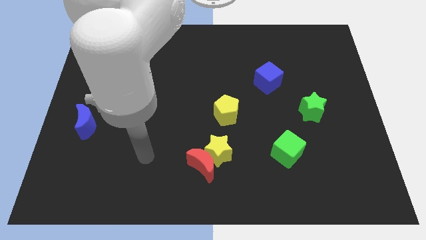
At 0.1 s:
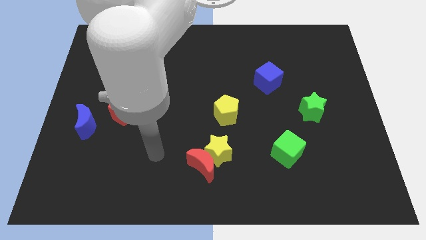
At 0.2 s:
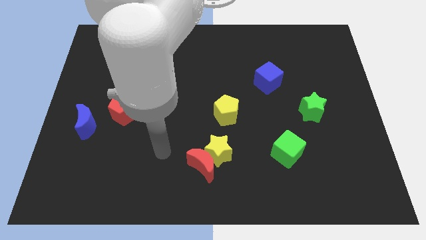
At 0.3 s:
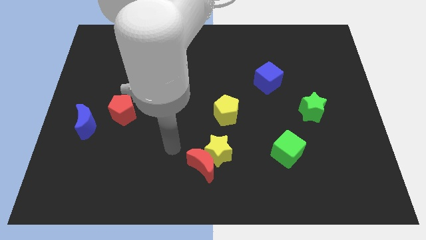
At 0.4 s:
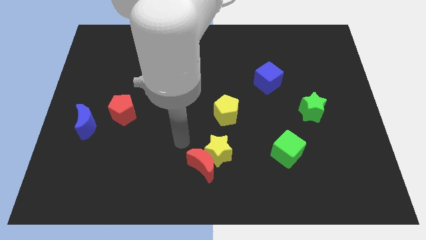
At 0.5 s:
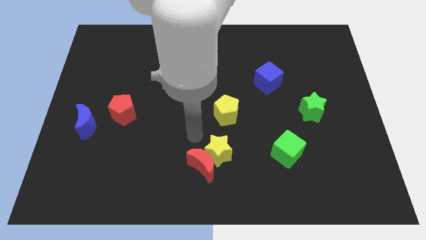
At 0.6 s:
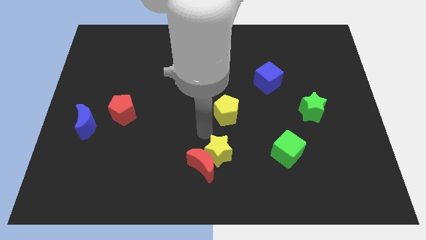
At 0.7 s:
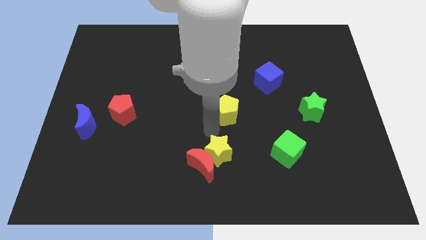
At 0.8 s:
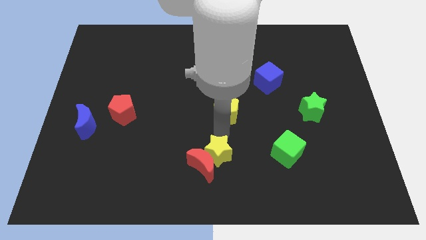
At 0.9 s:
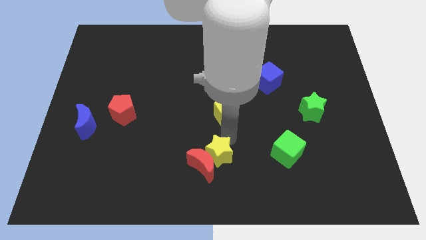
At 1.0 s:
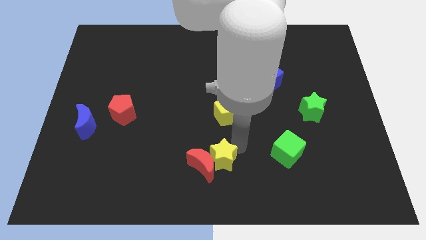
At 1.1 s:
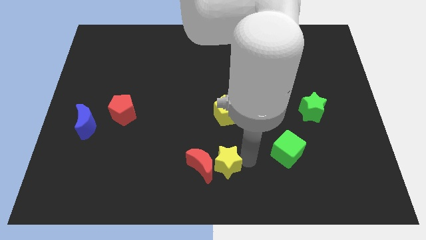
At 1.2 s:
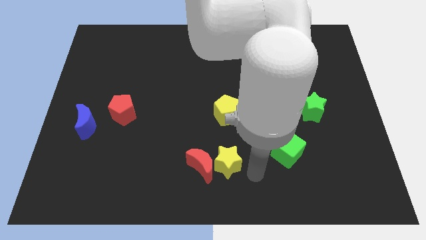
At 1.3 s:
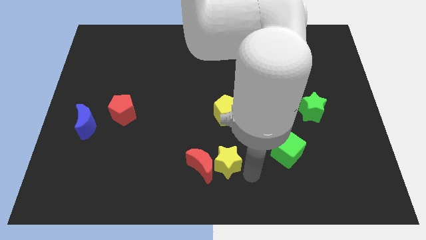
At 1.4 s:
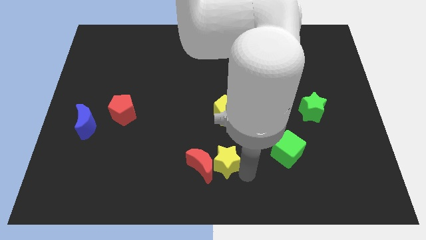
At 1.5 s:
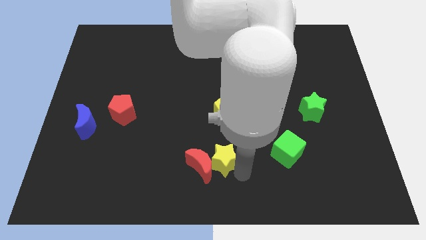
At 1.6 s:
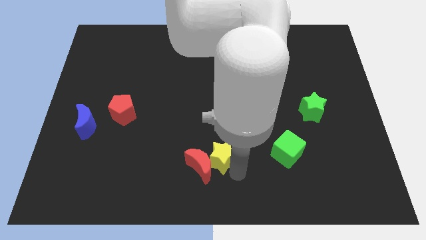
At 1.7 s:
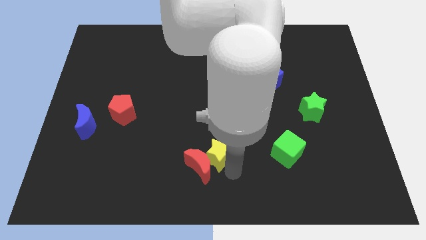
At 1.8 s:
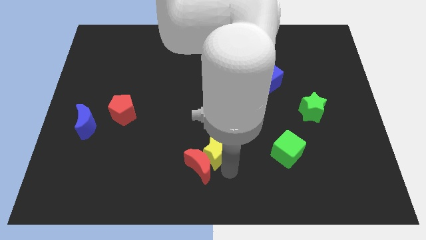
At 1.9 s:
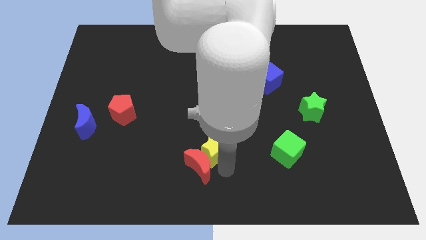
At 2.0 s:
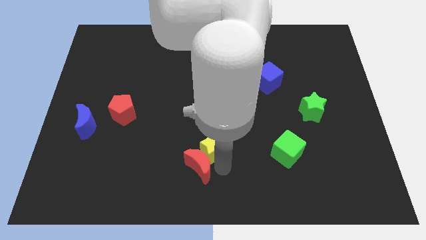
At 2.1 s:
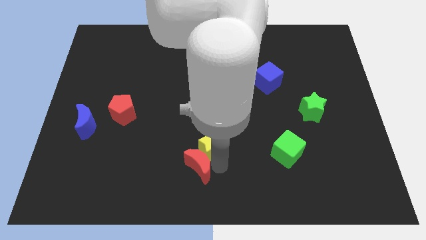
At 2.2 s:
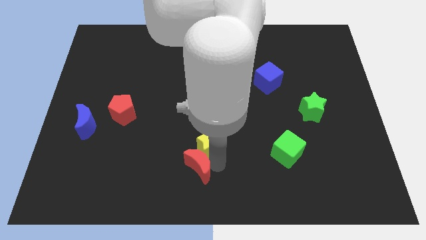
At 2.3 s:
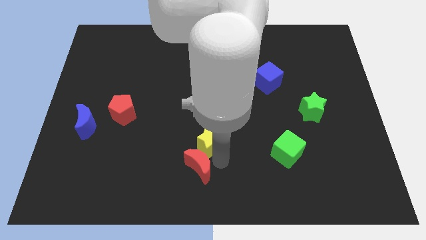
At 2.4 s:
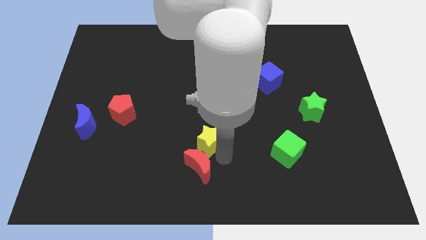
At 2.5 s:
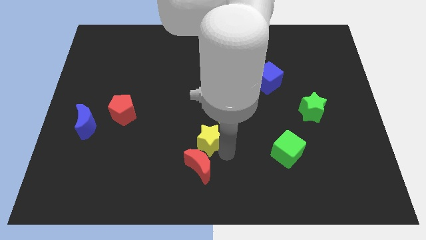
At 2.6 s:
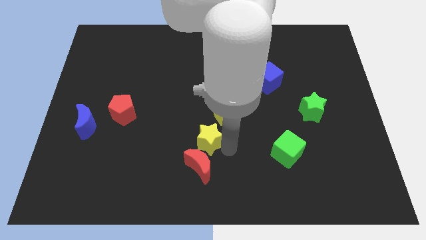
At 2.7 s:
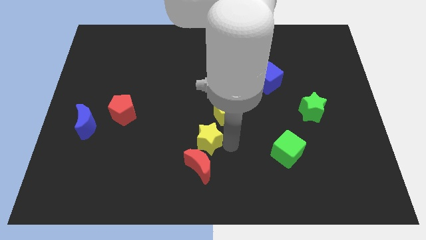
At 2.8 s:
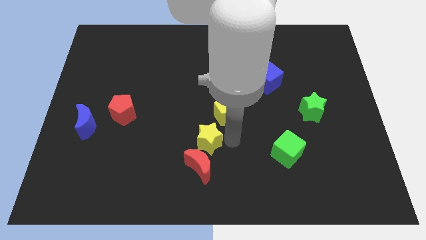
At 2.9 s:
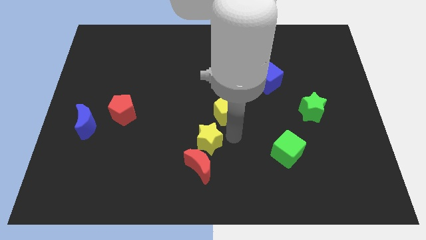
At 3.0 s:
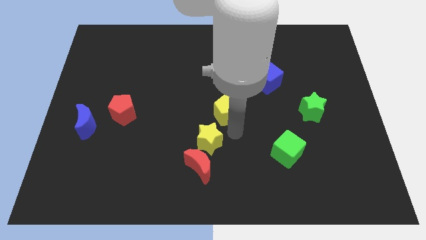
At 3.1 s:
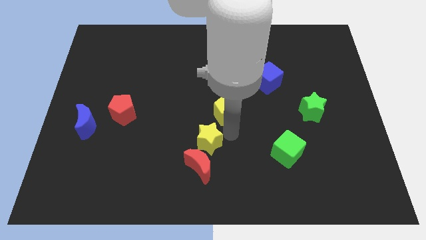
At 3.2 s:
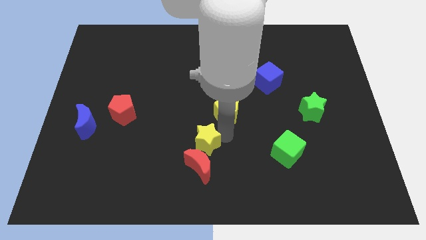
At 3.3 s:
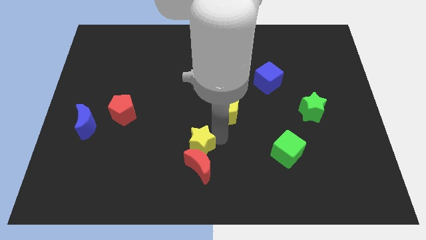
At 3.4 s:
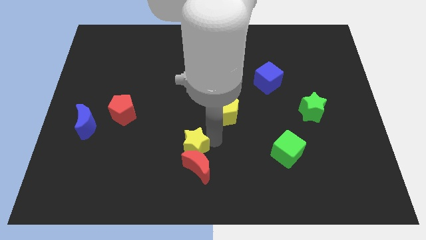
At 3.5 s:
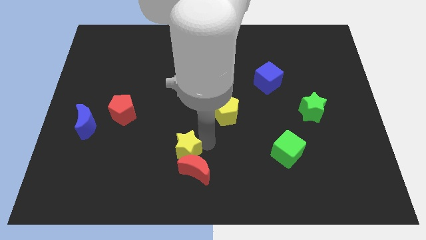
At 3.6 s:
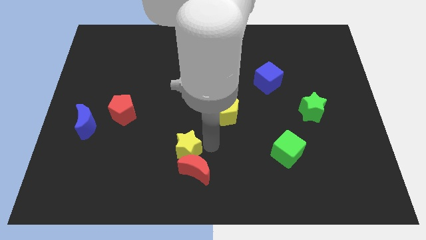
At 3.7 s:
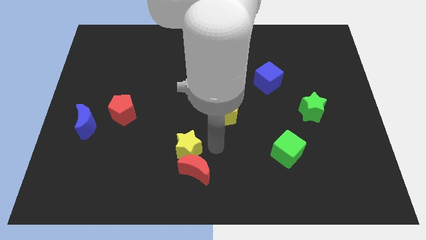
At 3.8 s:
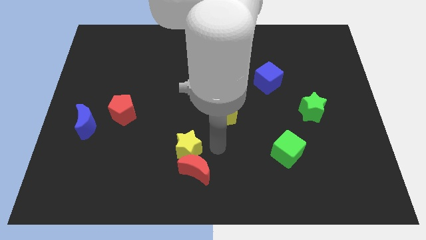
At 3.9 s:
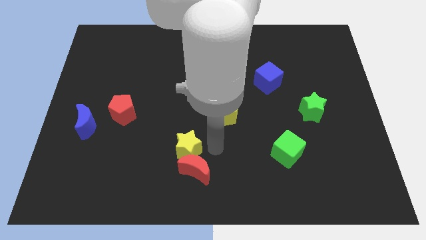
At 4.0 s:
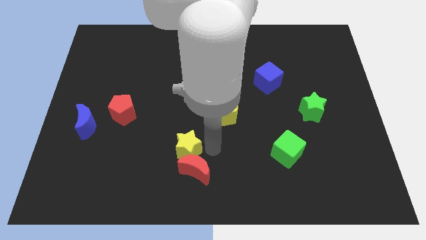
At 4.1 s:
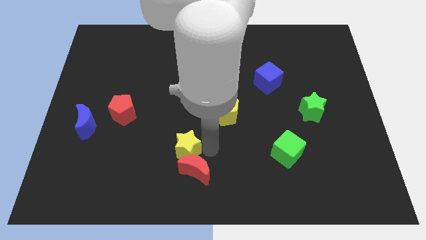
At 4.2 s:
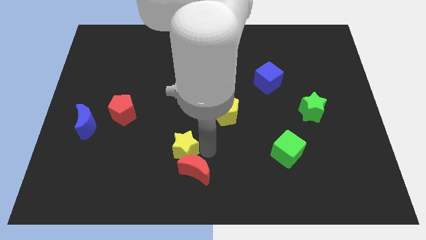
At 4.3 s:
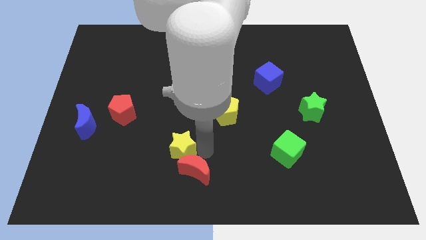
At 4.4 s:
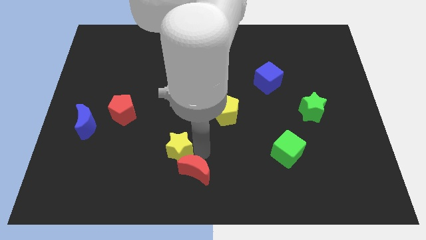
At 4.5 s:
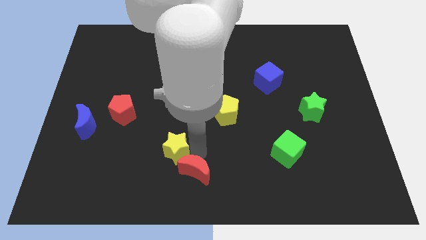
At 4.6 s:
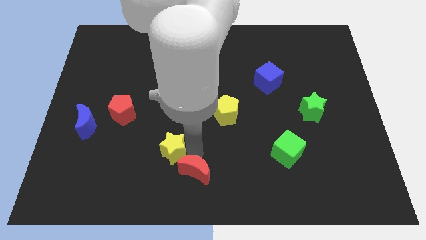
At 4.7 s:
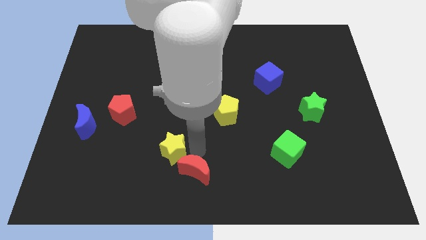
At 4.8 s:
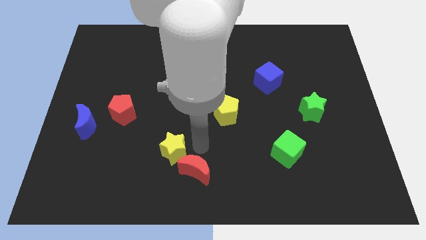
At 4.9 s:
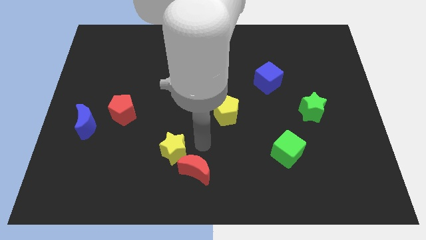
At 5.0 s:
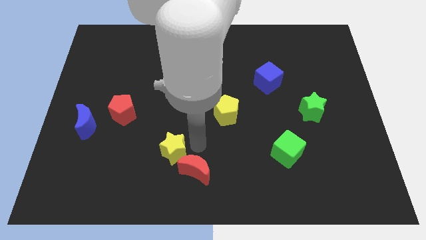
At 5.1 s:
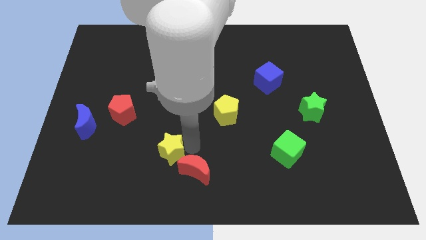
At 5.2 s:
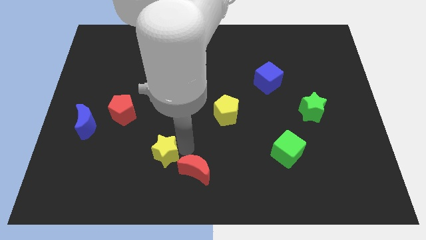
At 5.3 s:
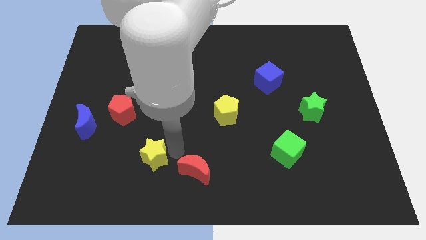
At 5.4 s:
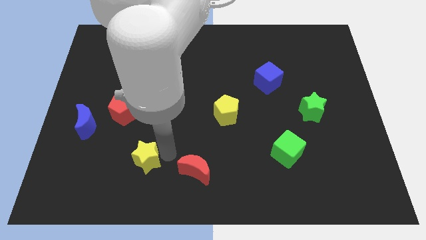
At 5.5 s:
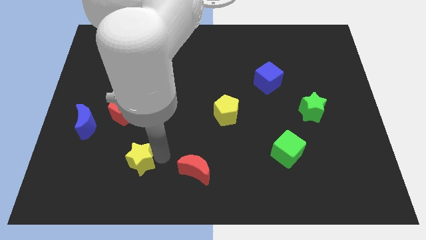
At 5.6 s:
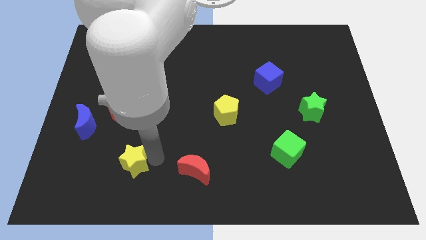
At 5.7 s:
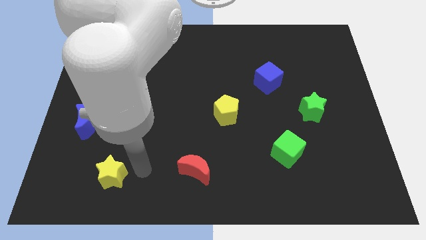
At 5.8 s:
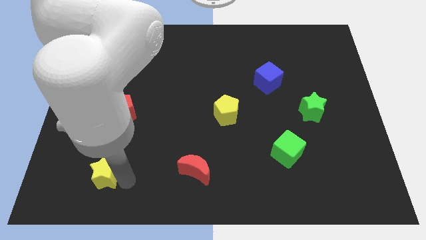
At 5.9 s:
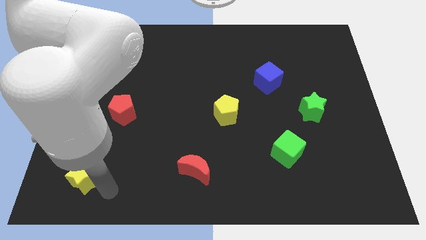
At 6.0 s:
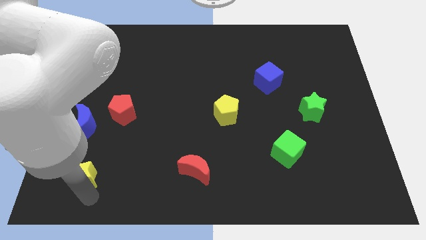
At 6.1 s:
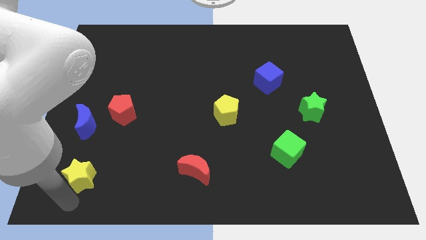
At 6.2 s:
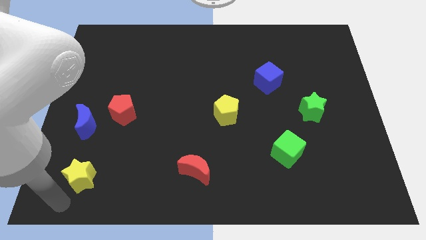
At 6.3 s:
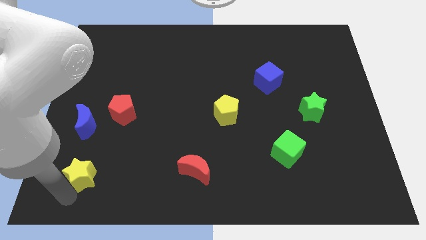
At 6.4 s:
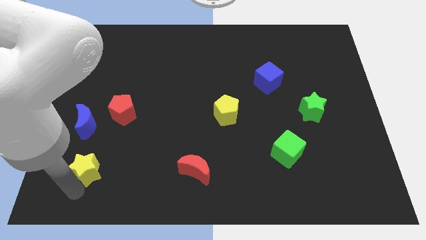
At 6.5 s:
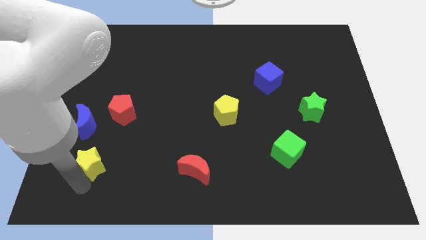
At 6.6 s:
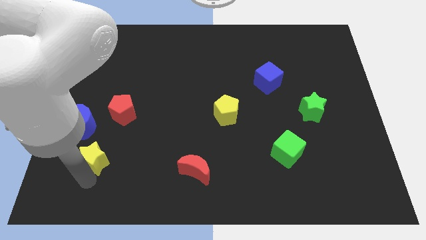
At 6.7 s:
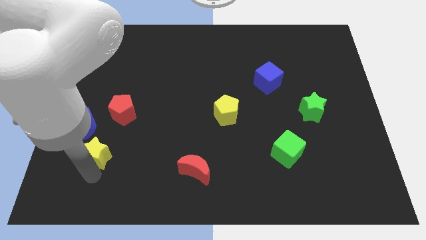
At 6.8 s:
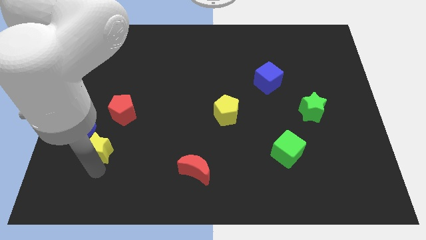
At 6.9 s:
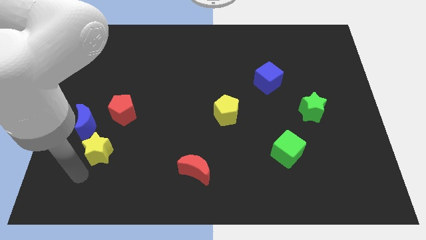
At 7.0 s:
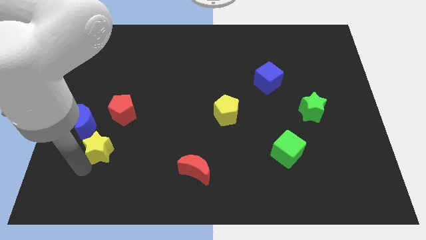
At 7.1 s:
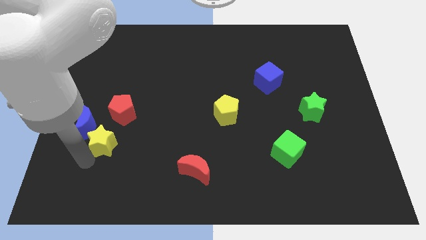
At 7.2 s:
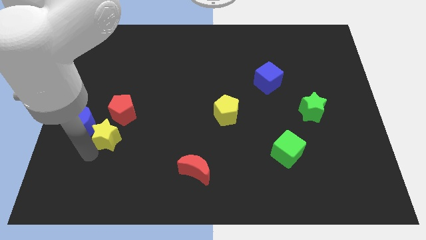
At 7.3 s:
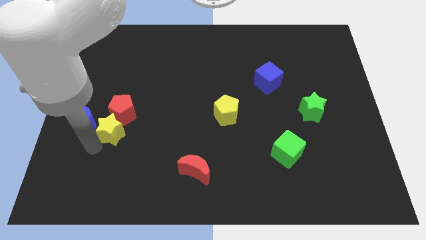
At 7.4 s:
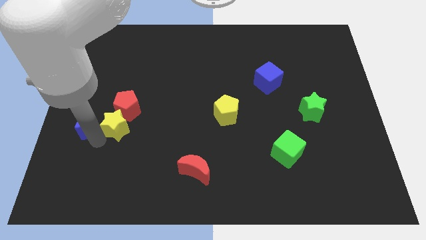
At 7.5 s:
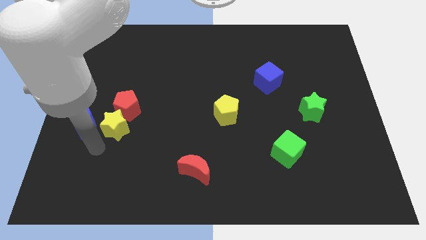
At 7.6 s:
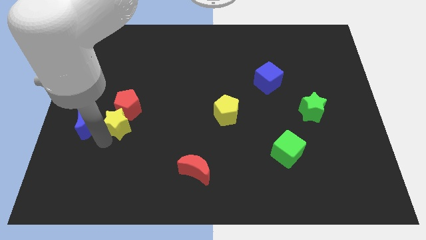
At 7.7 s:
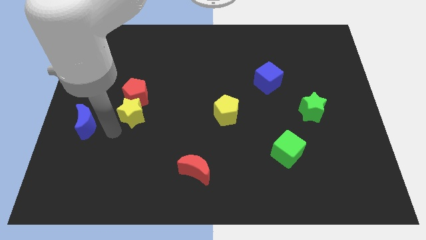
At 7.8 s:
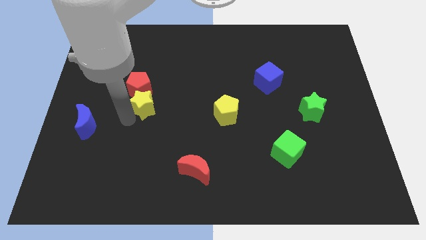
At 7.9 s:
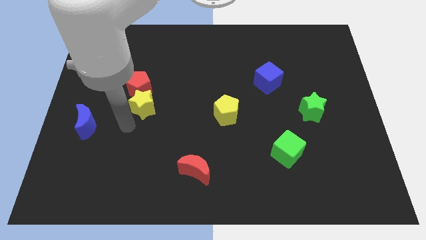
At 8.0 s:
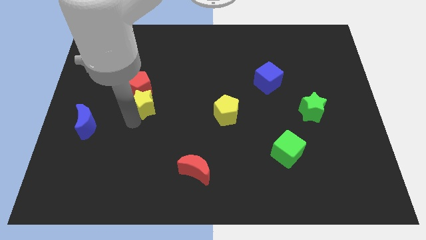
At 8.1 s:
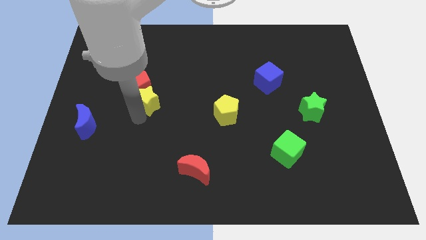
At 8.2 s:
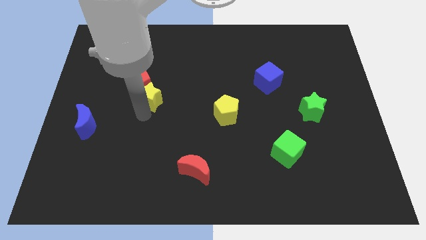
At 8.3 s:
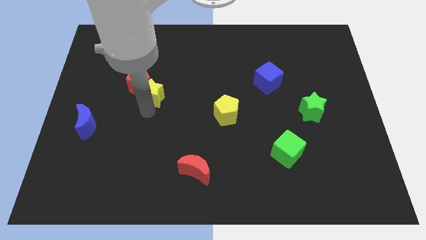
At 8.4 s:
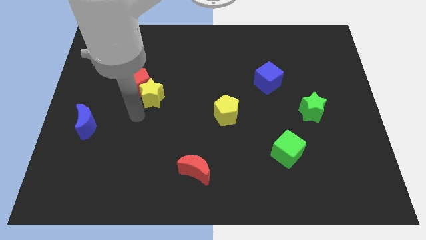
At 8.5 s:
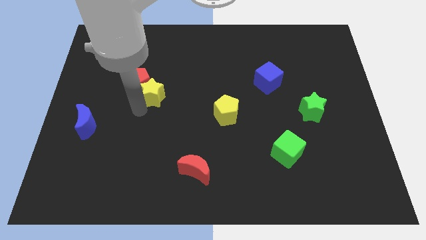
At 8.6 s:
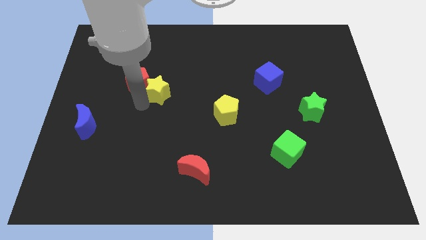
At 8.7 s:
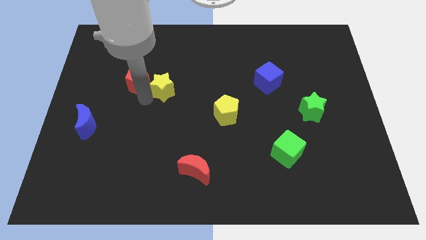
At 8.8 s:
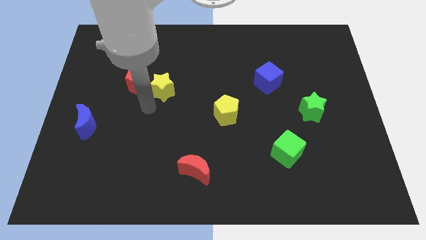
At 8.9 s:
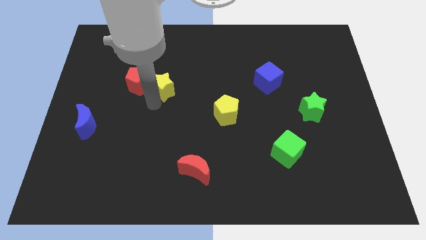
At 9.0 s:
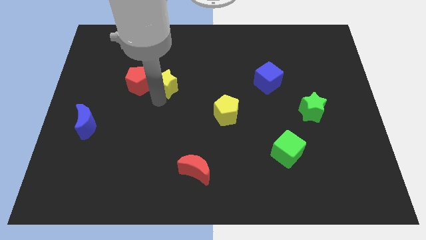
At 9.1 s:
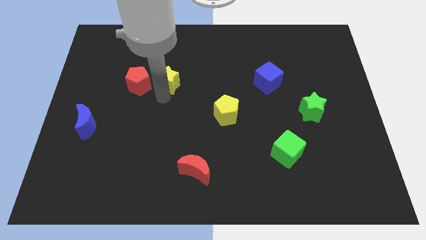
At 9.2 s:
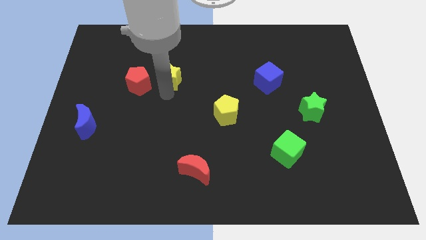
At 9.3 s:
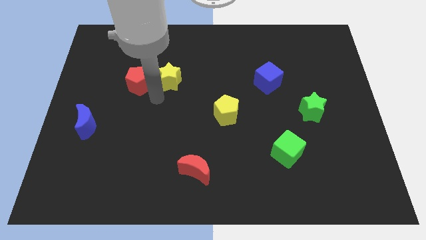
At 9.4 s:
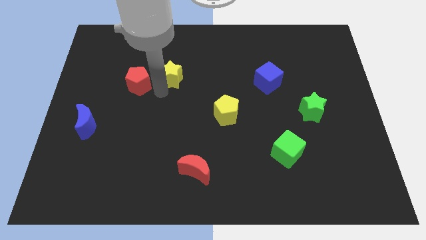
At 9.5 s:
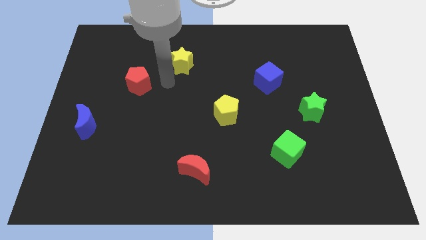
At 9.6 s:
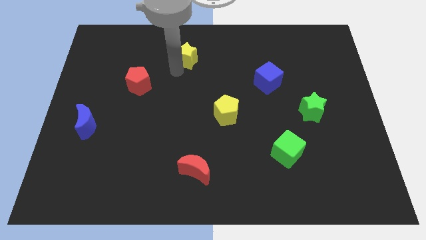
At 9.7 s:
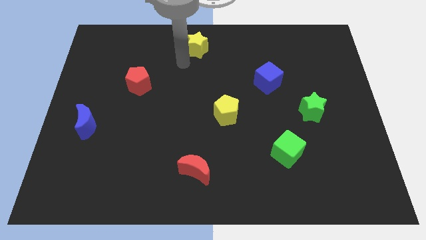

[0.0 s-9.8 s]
push the yellow star to the top
